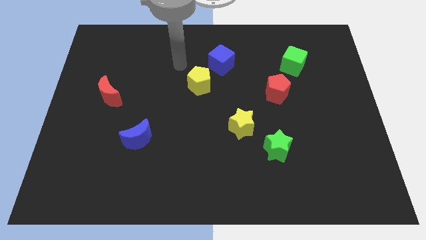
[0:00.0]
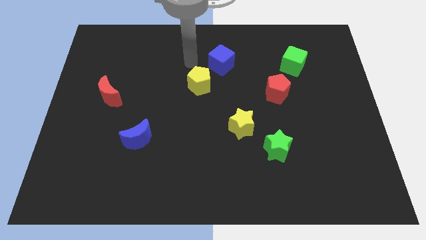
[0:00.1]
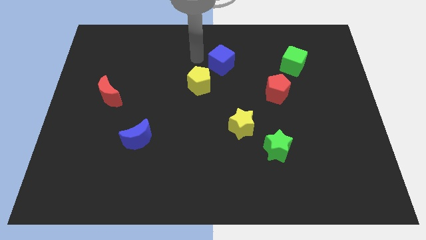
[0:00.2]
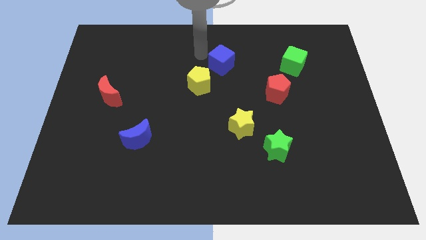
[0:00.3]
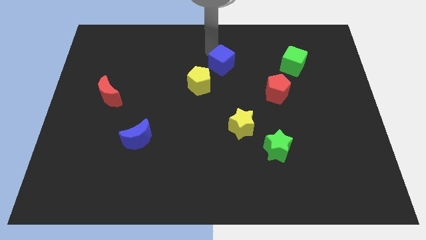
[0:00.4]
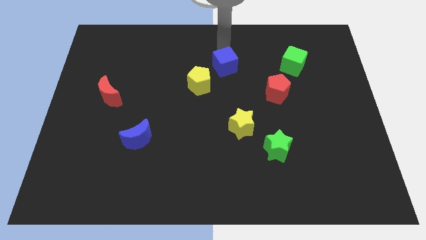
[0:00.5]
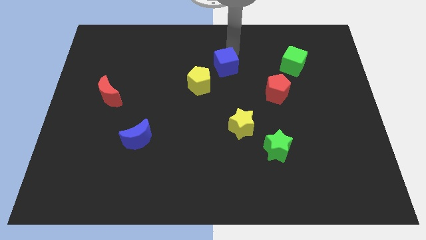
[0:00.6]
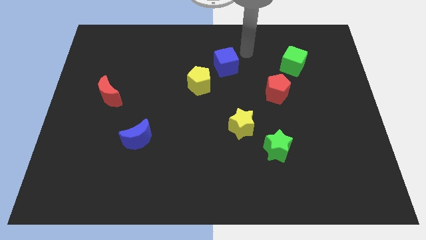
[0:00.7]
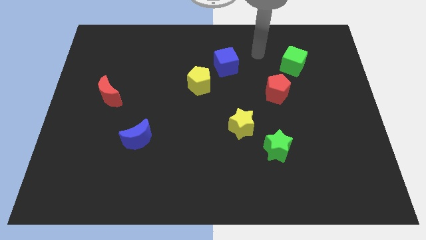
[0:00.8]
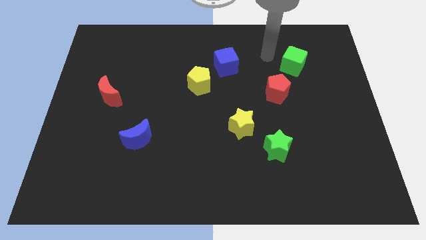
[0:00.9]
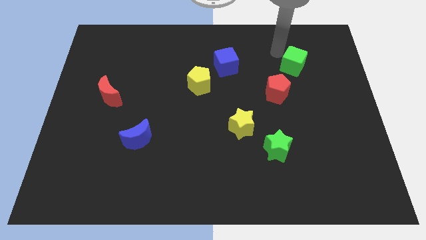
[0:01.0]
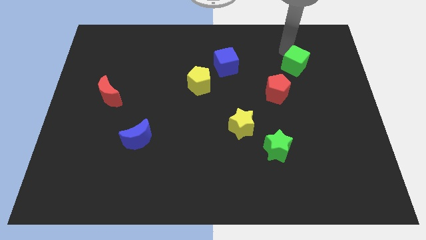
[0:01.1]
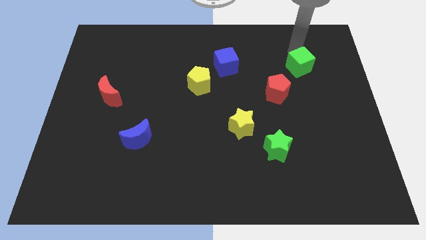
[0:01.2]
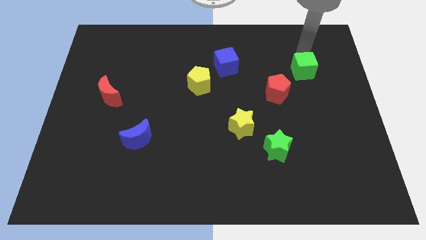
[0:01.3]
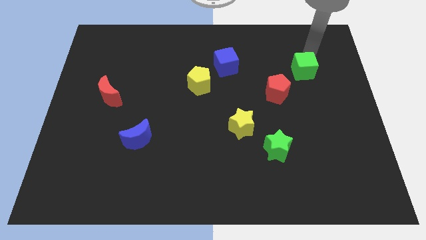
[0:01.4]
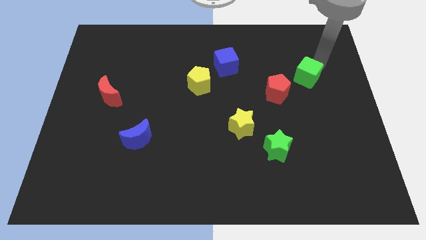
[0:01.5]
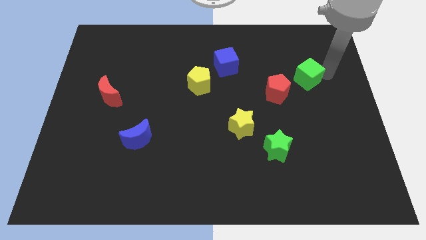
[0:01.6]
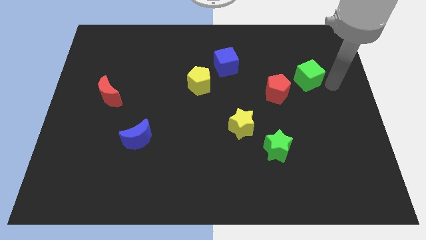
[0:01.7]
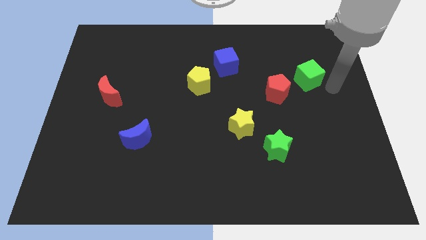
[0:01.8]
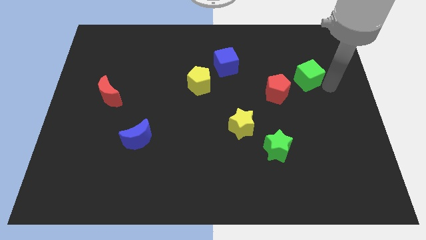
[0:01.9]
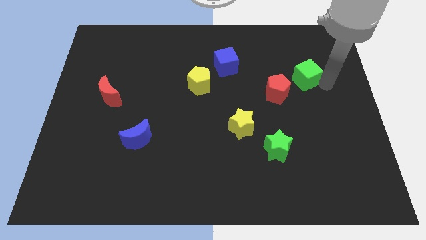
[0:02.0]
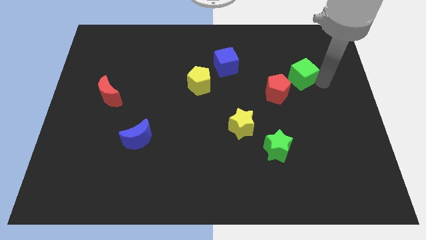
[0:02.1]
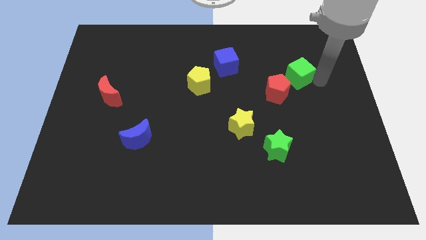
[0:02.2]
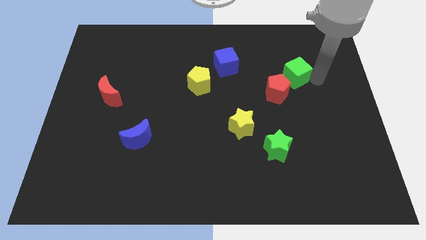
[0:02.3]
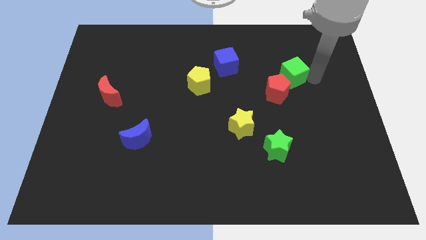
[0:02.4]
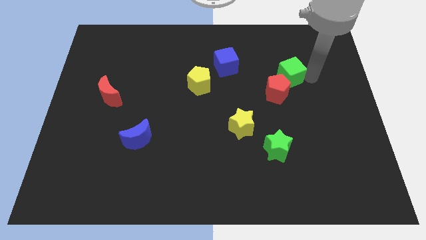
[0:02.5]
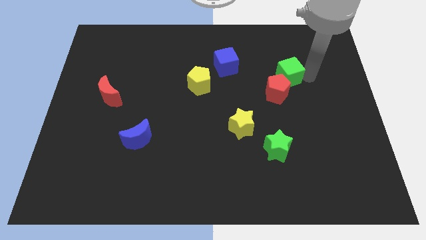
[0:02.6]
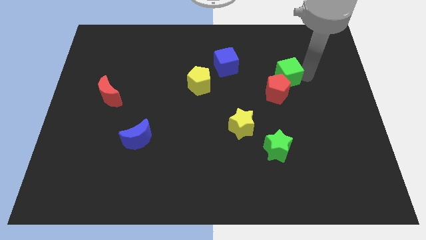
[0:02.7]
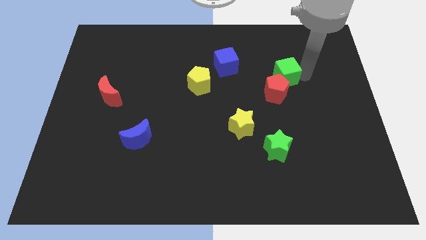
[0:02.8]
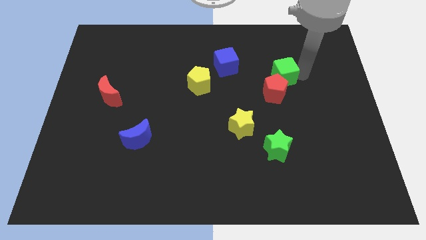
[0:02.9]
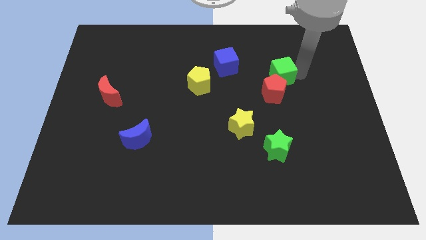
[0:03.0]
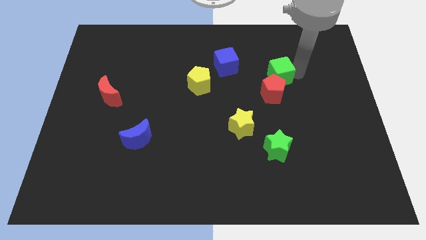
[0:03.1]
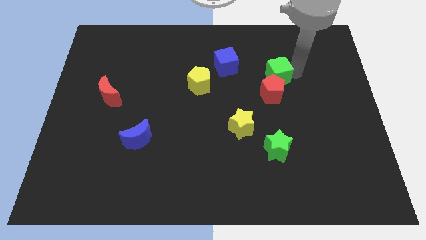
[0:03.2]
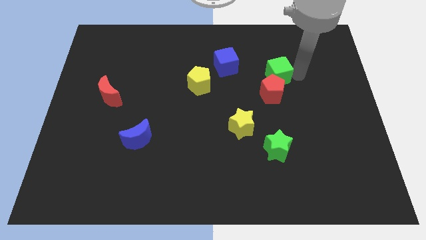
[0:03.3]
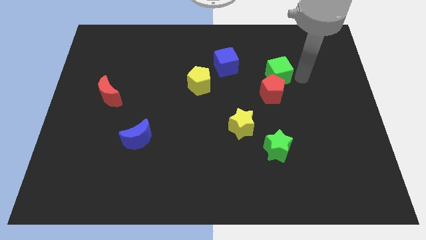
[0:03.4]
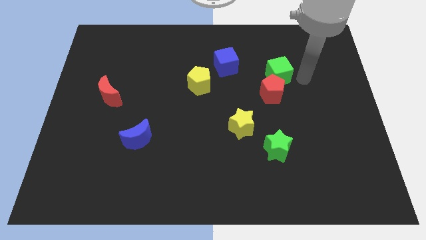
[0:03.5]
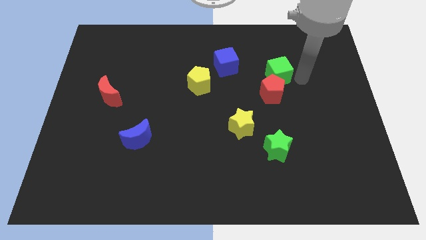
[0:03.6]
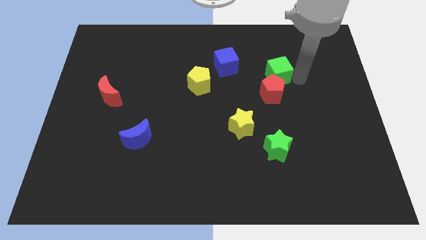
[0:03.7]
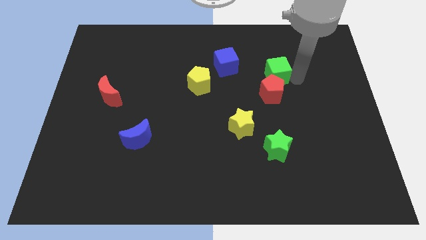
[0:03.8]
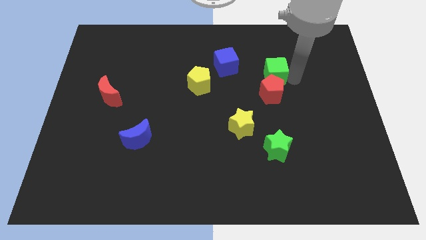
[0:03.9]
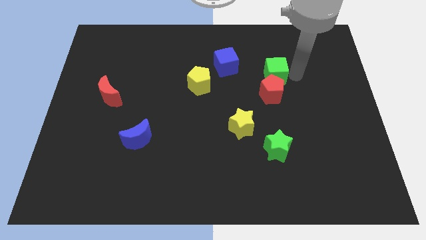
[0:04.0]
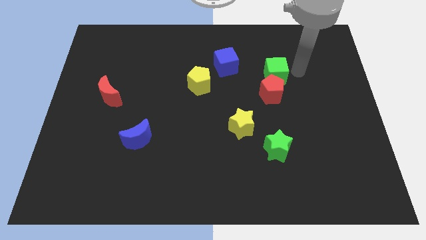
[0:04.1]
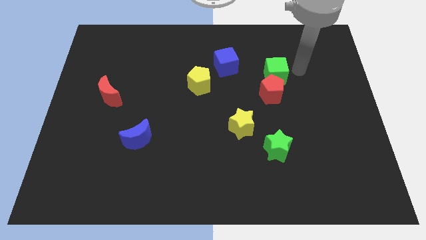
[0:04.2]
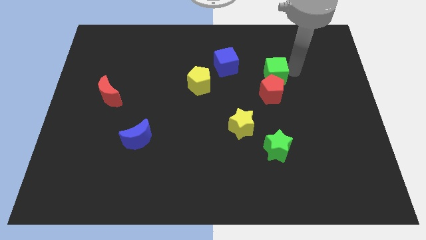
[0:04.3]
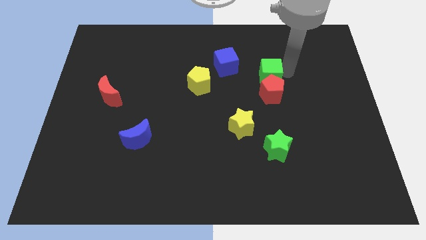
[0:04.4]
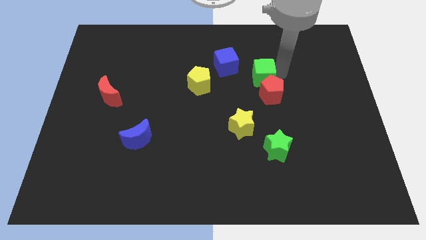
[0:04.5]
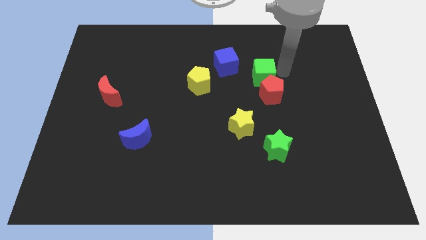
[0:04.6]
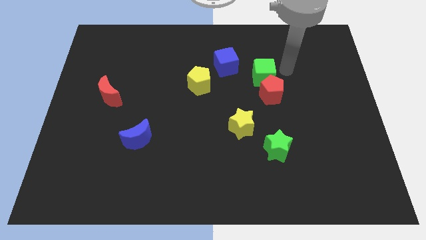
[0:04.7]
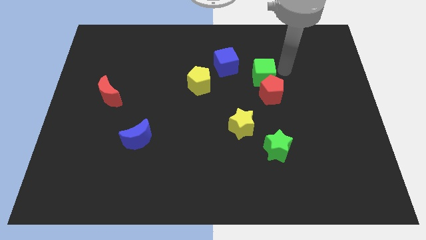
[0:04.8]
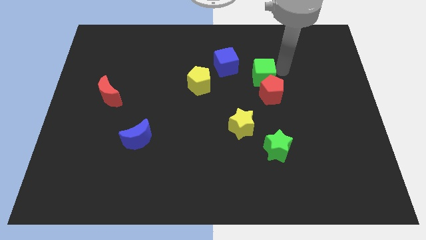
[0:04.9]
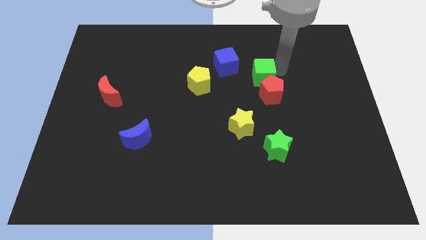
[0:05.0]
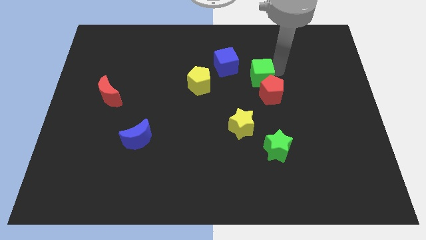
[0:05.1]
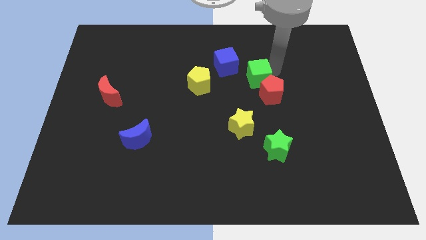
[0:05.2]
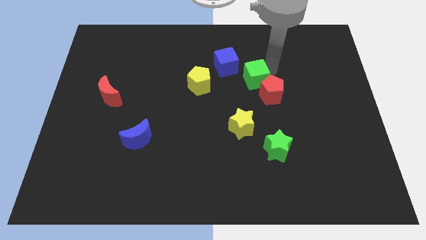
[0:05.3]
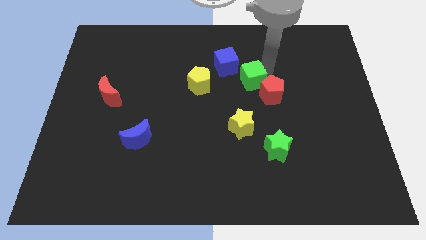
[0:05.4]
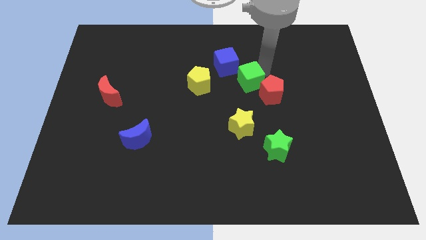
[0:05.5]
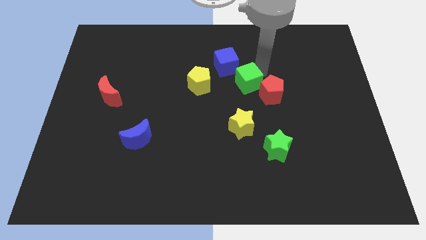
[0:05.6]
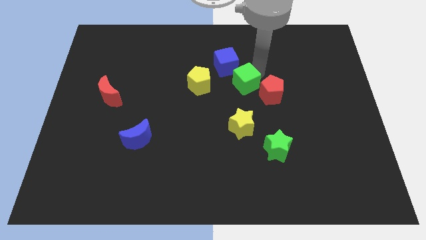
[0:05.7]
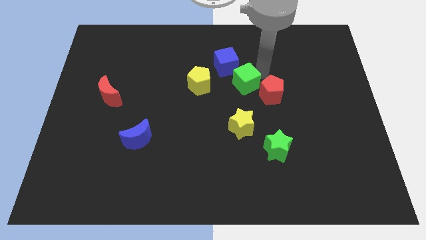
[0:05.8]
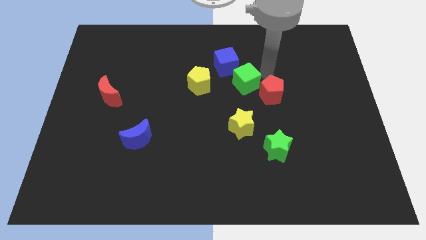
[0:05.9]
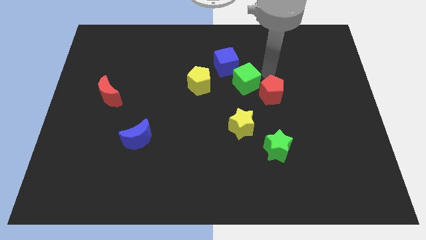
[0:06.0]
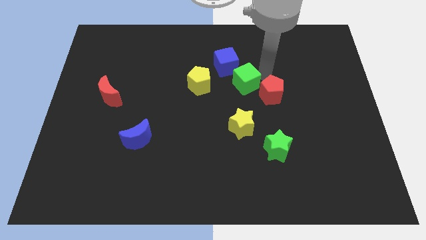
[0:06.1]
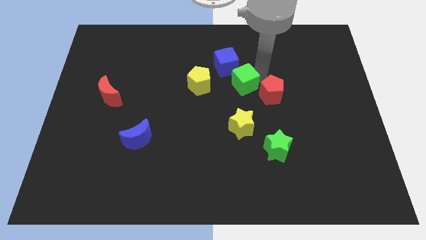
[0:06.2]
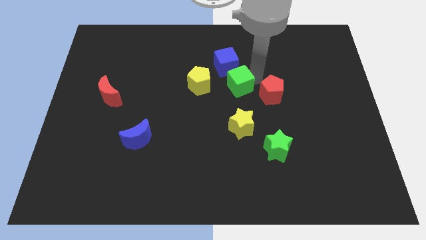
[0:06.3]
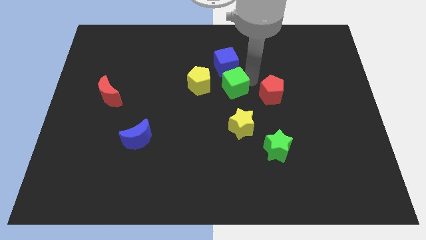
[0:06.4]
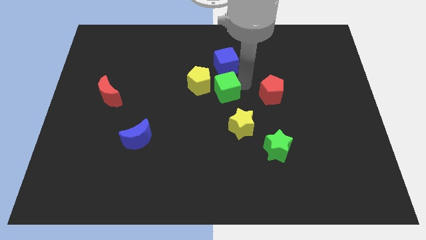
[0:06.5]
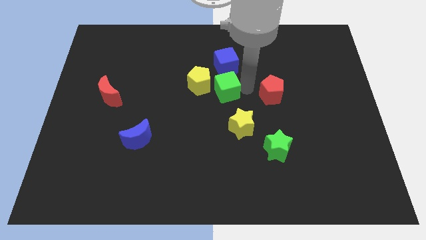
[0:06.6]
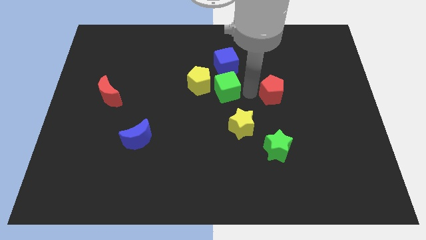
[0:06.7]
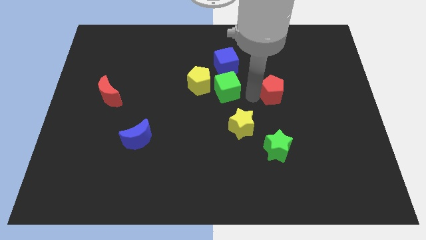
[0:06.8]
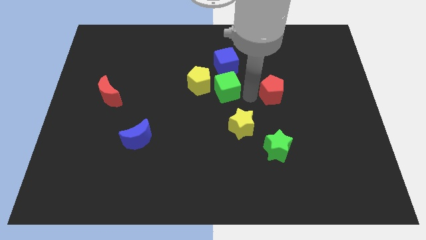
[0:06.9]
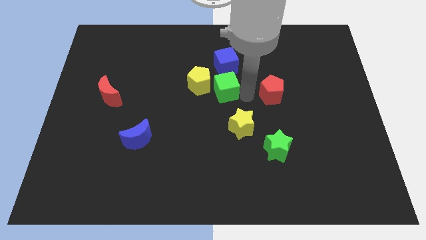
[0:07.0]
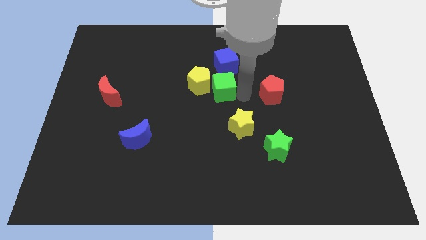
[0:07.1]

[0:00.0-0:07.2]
slide the green cube close to the yellow pentagon

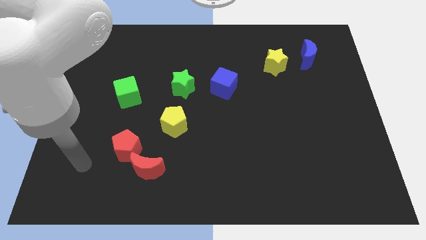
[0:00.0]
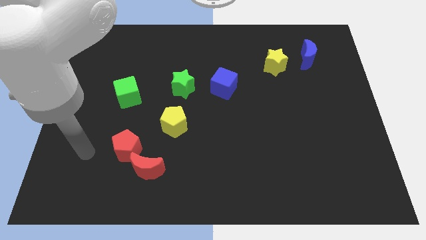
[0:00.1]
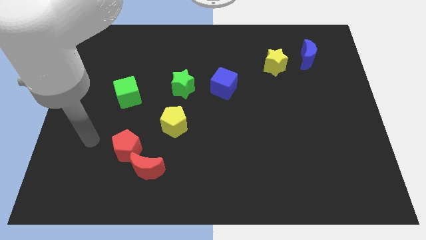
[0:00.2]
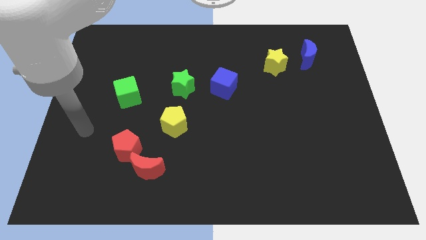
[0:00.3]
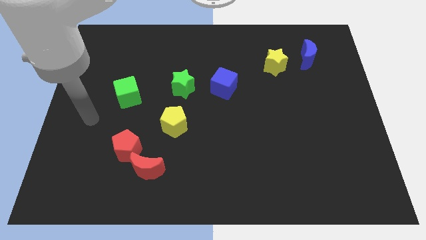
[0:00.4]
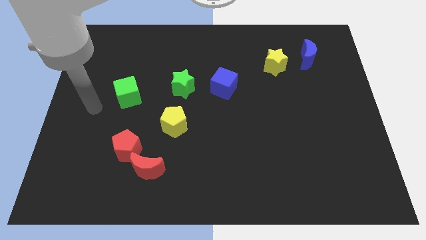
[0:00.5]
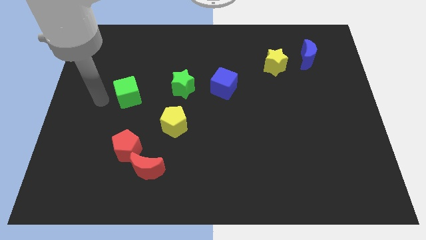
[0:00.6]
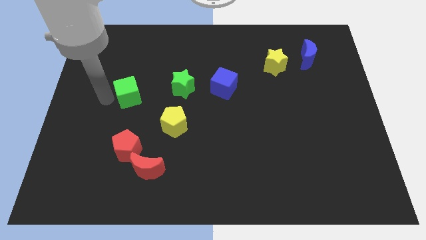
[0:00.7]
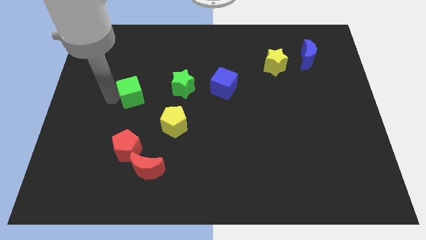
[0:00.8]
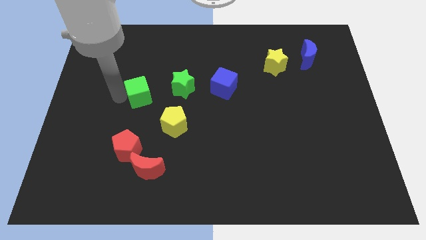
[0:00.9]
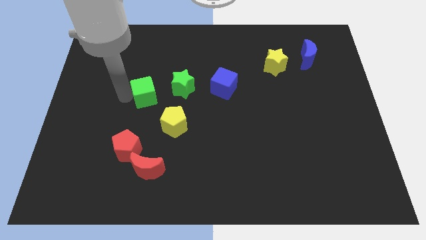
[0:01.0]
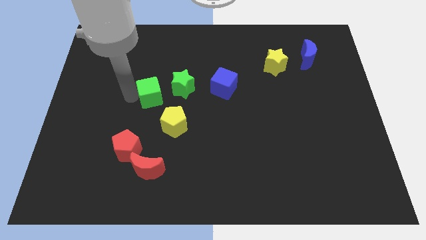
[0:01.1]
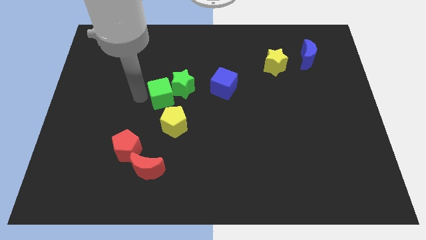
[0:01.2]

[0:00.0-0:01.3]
move the green cube next to the green star
